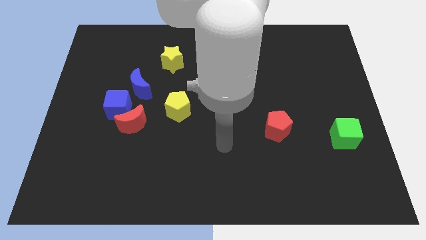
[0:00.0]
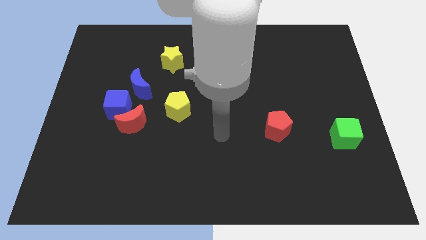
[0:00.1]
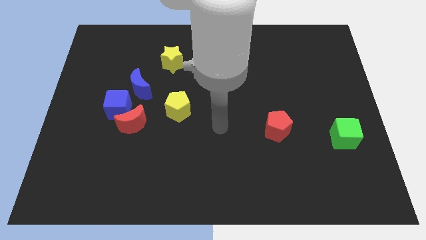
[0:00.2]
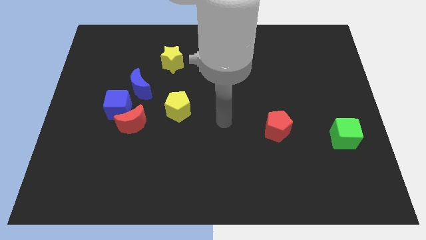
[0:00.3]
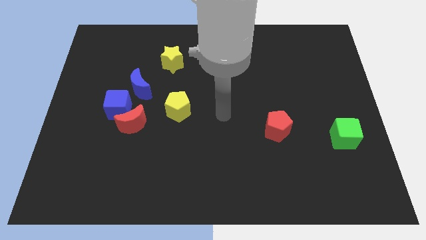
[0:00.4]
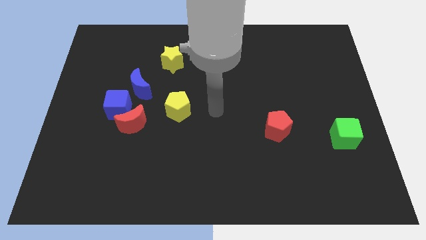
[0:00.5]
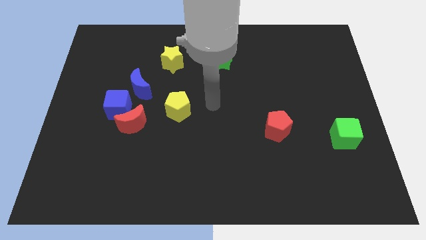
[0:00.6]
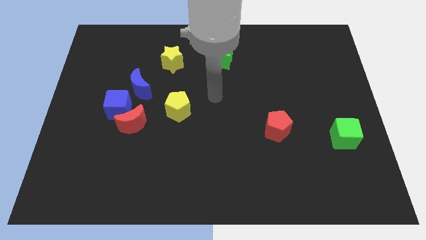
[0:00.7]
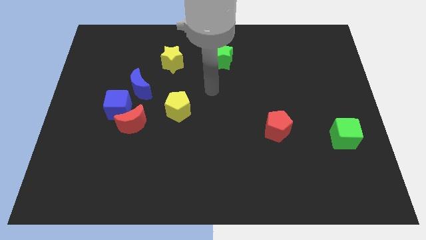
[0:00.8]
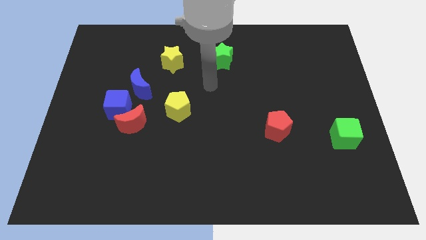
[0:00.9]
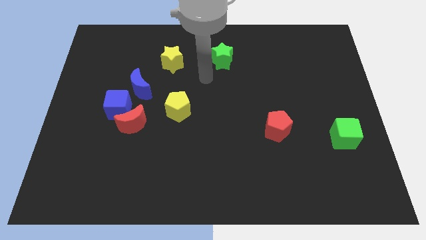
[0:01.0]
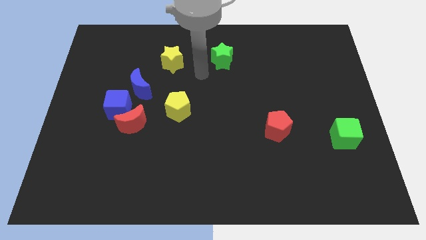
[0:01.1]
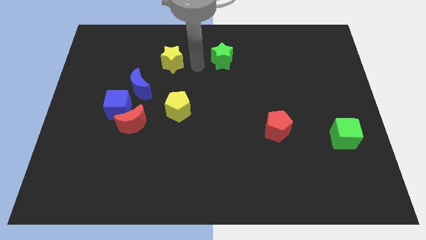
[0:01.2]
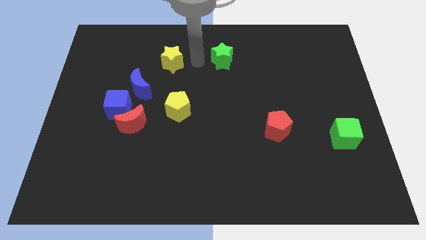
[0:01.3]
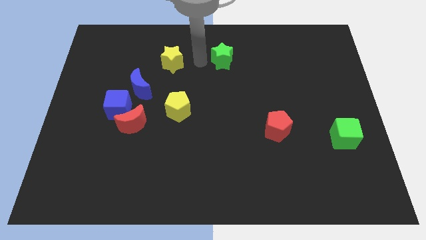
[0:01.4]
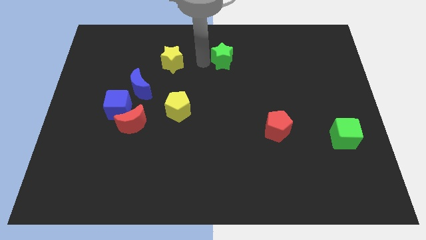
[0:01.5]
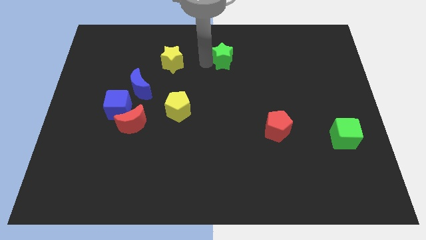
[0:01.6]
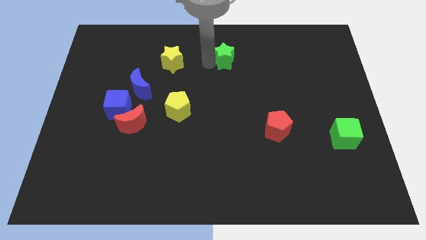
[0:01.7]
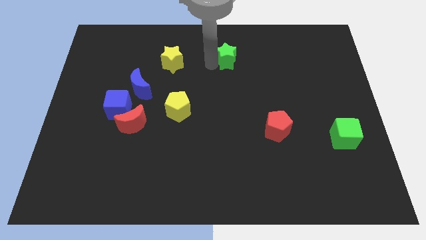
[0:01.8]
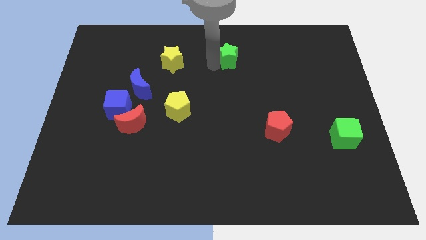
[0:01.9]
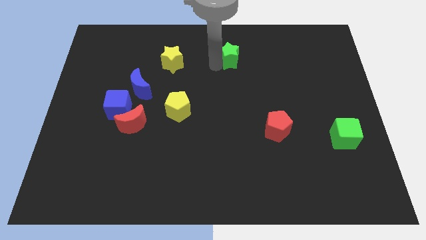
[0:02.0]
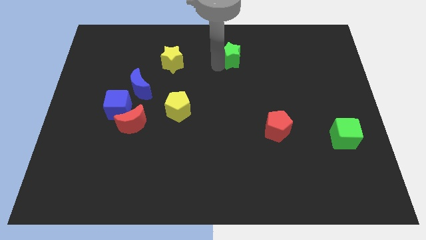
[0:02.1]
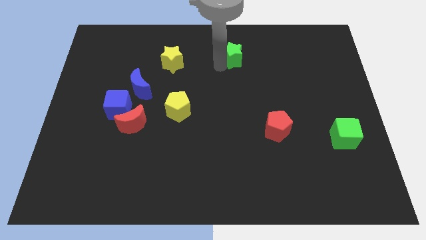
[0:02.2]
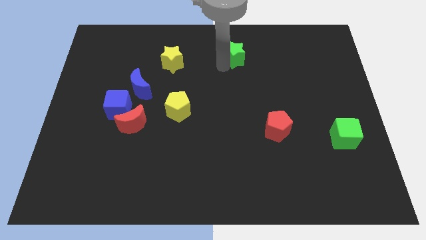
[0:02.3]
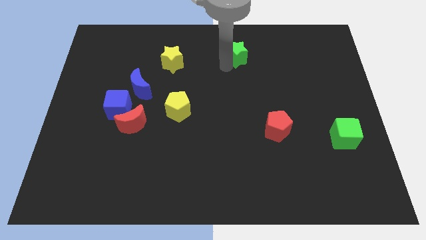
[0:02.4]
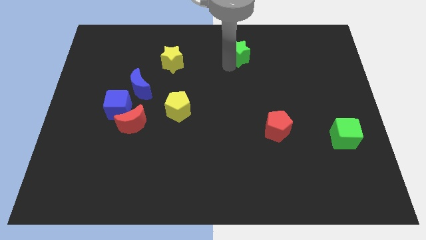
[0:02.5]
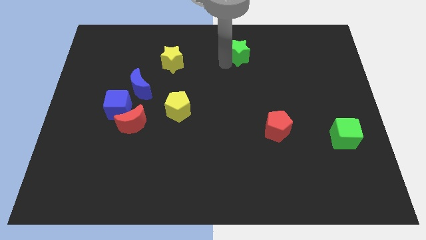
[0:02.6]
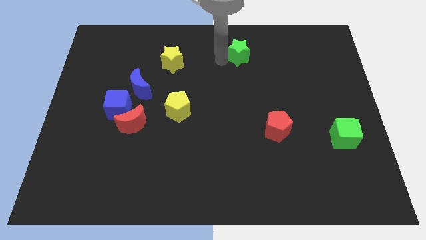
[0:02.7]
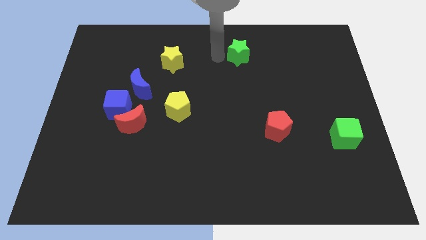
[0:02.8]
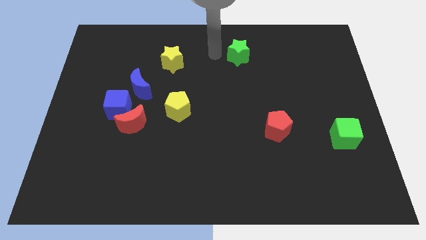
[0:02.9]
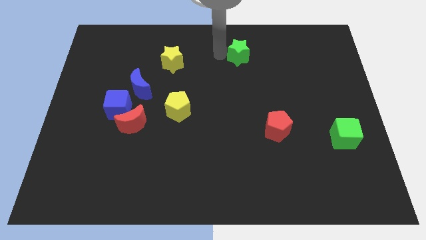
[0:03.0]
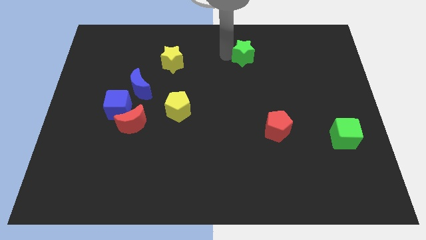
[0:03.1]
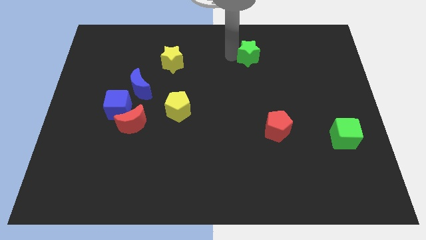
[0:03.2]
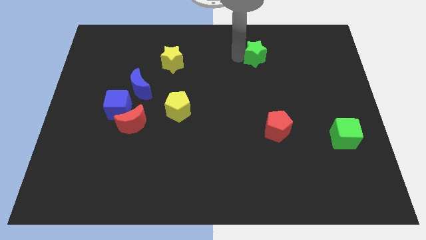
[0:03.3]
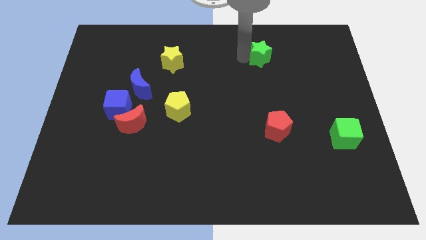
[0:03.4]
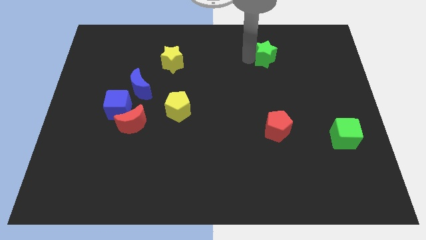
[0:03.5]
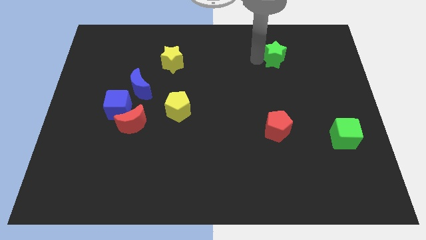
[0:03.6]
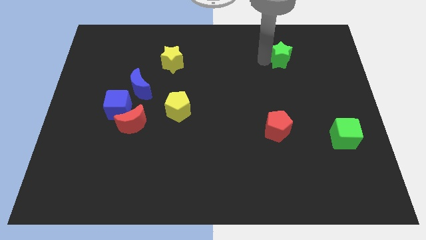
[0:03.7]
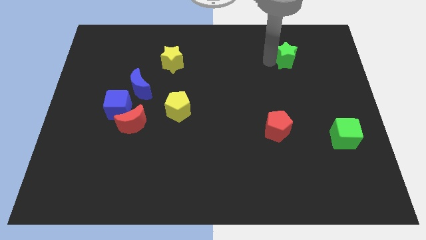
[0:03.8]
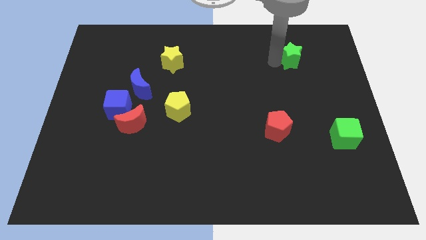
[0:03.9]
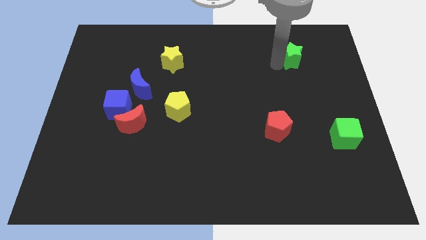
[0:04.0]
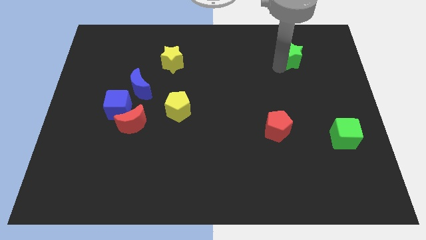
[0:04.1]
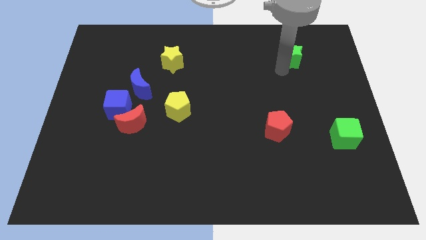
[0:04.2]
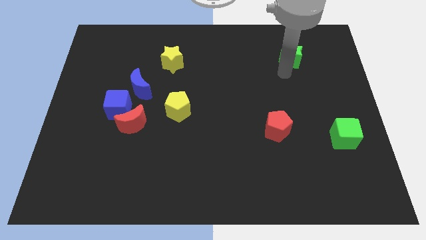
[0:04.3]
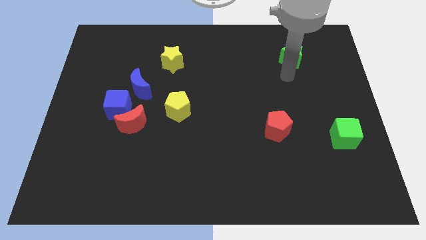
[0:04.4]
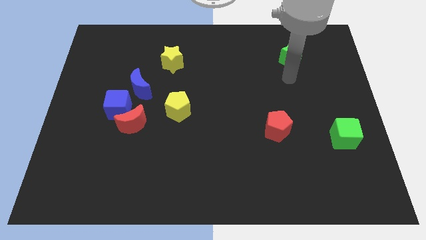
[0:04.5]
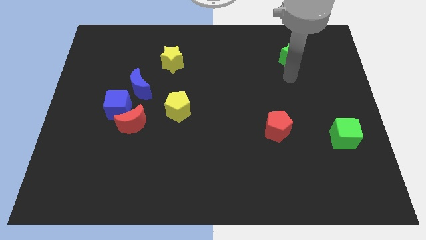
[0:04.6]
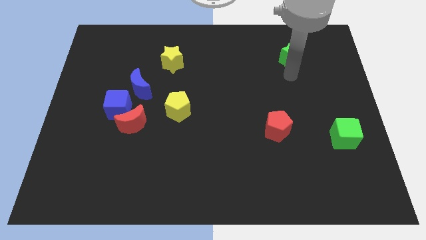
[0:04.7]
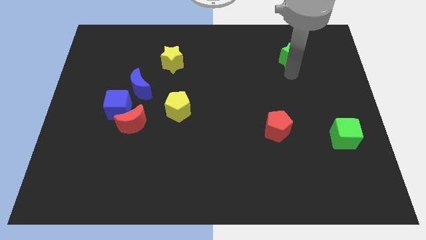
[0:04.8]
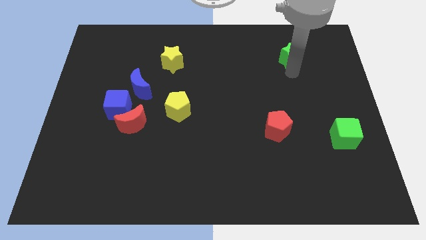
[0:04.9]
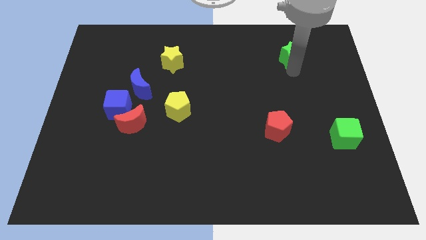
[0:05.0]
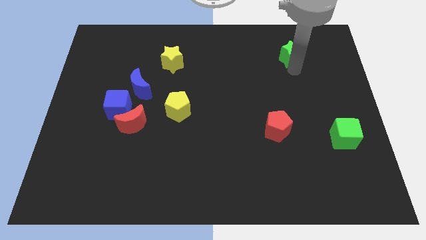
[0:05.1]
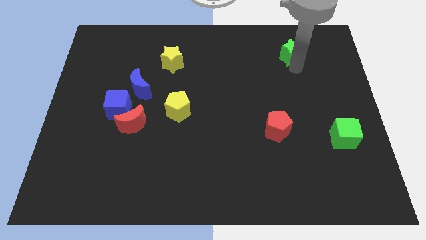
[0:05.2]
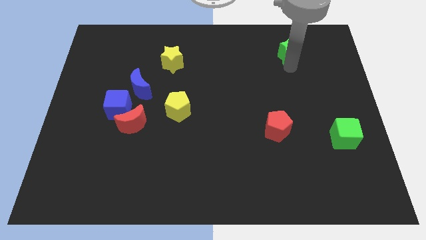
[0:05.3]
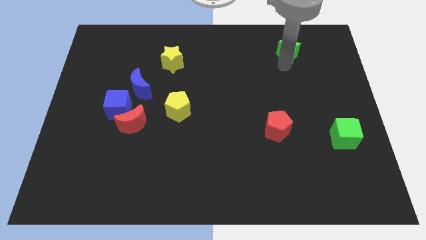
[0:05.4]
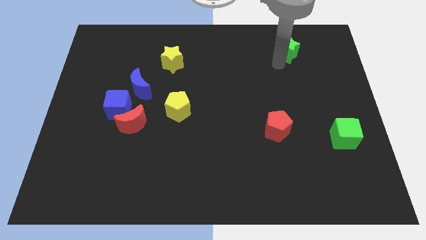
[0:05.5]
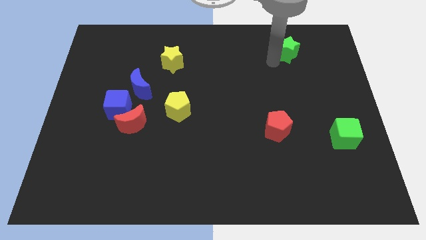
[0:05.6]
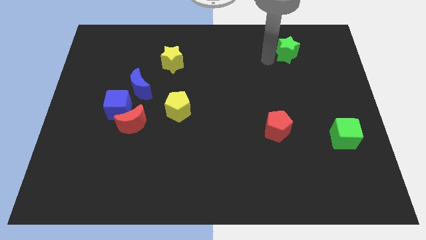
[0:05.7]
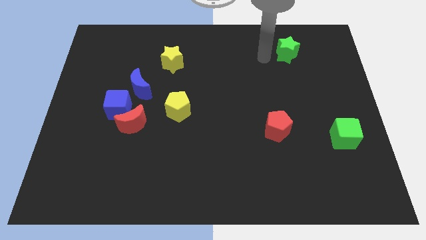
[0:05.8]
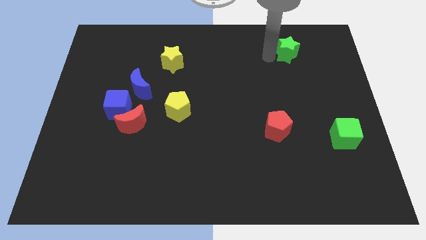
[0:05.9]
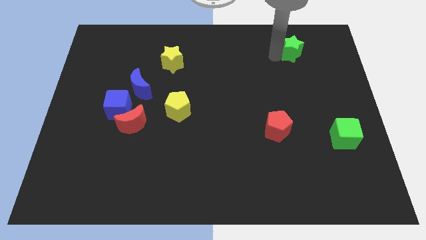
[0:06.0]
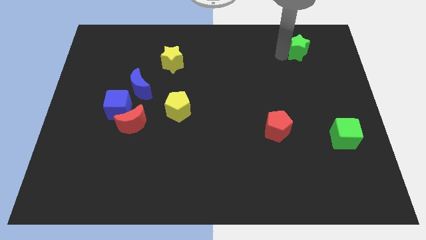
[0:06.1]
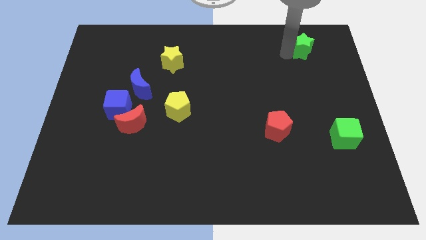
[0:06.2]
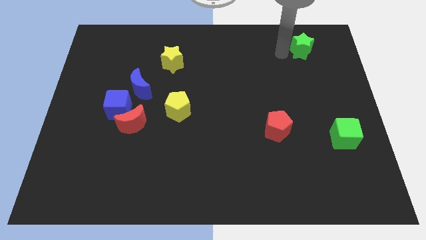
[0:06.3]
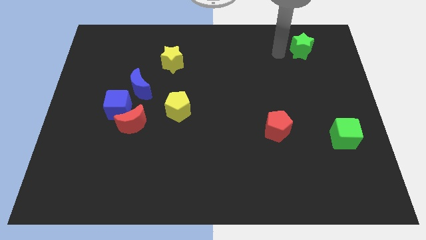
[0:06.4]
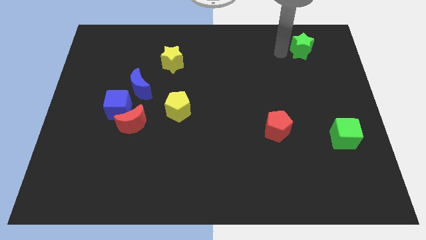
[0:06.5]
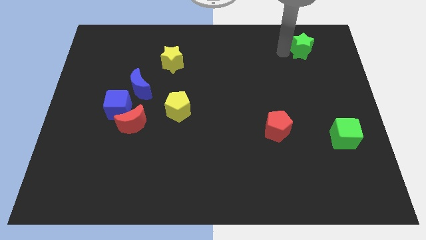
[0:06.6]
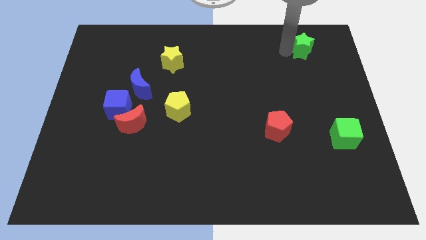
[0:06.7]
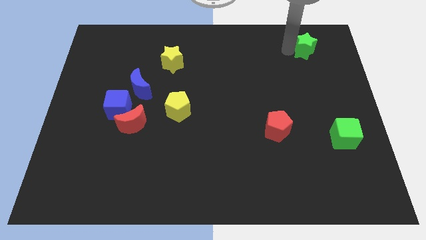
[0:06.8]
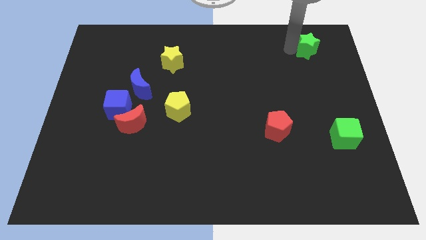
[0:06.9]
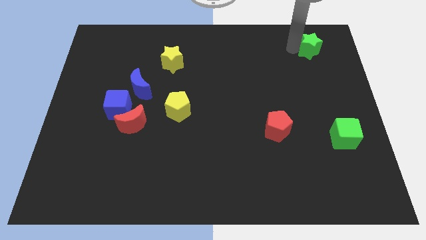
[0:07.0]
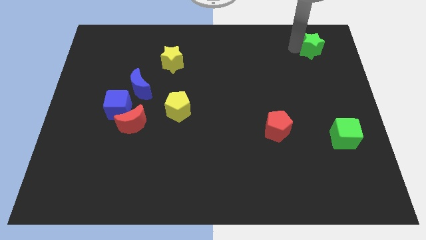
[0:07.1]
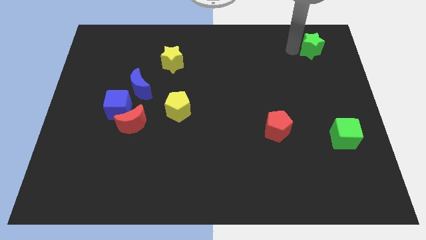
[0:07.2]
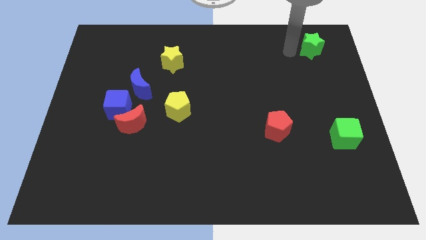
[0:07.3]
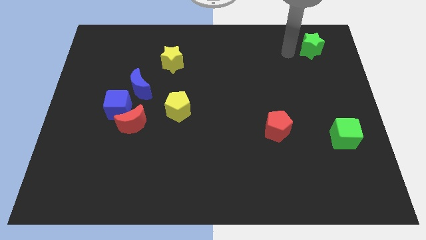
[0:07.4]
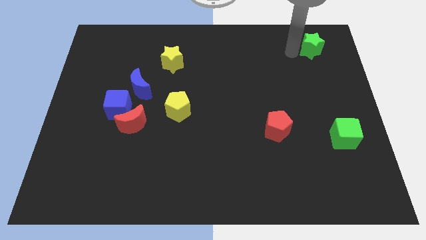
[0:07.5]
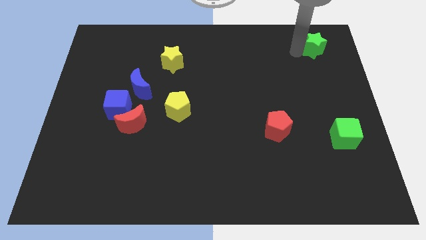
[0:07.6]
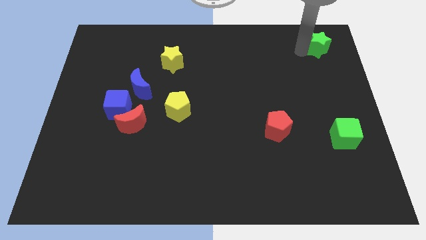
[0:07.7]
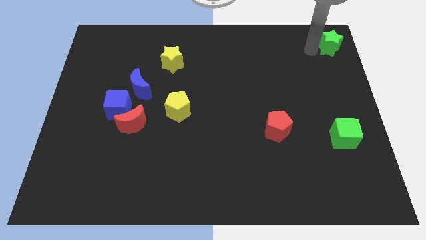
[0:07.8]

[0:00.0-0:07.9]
slide the green star to the top right
